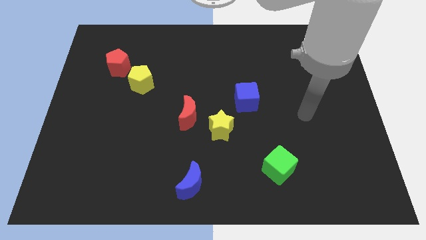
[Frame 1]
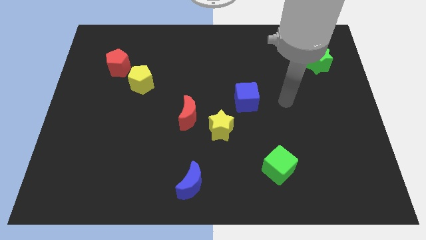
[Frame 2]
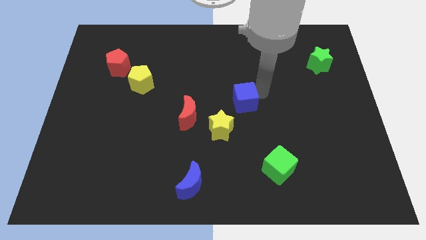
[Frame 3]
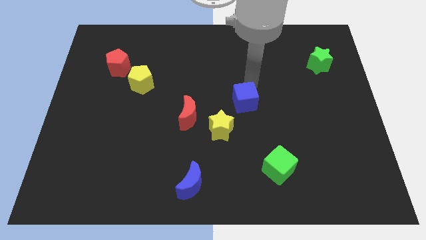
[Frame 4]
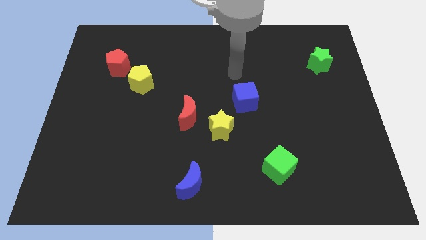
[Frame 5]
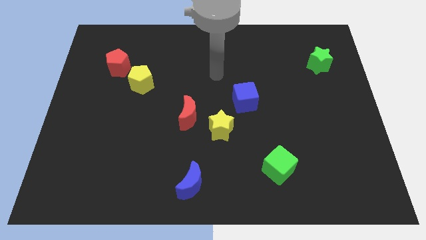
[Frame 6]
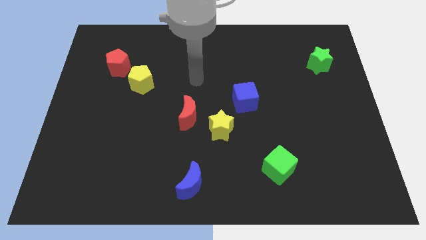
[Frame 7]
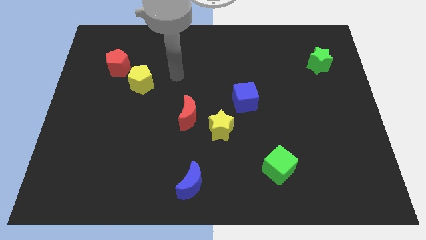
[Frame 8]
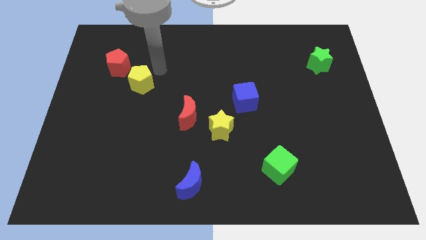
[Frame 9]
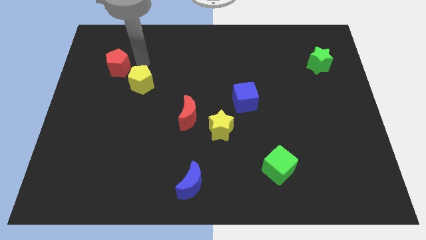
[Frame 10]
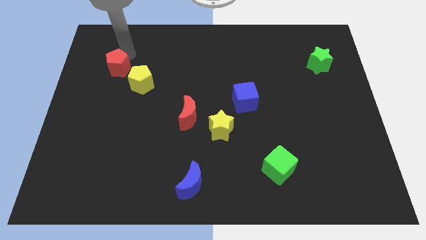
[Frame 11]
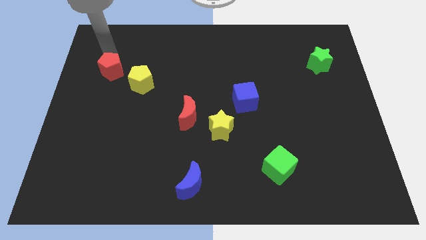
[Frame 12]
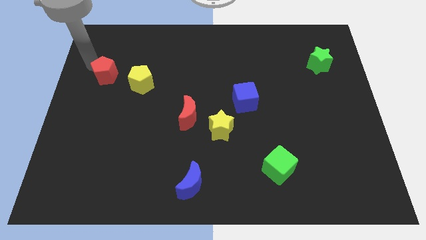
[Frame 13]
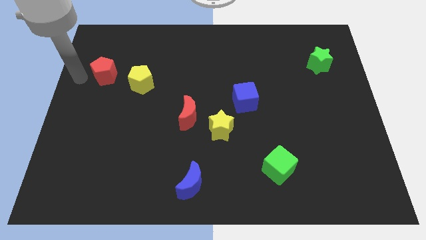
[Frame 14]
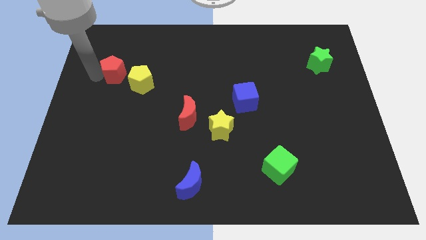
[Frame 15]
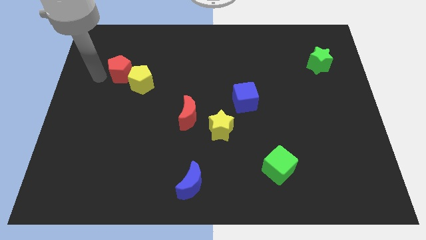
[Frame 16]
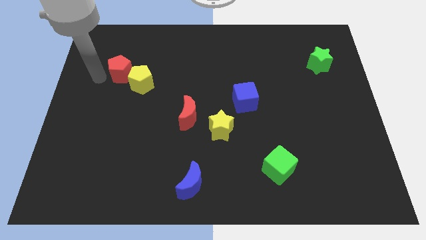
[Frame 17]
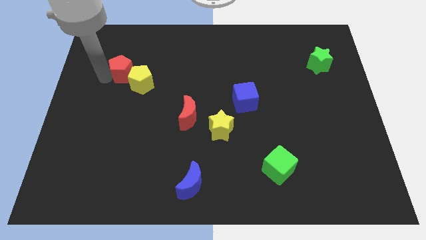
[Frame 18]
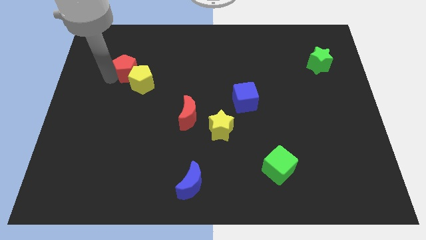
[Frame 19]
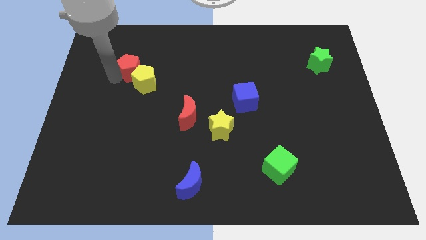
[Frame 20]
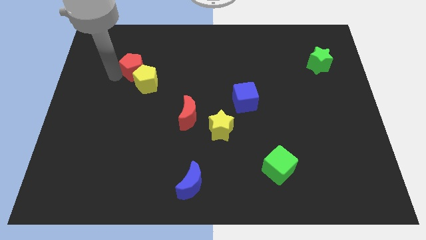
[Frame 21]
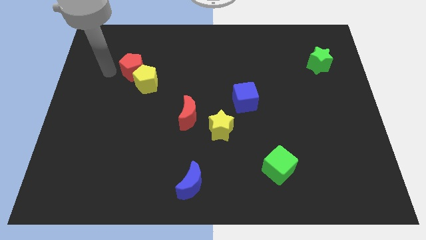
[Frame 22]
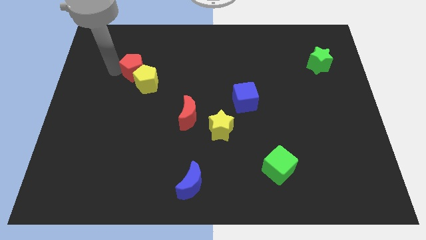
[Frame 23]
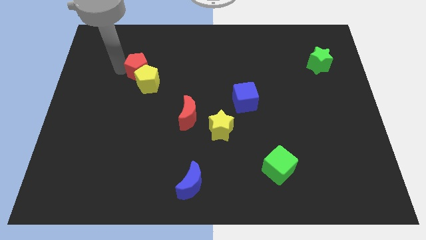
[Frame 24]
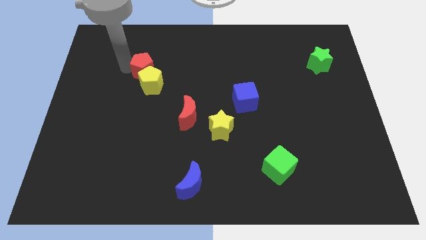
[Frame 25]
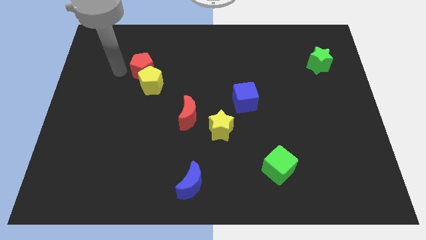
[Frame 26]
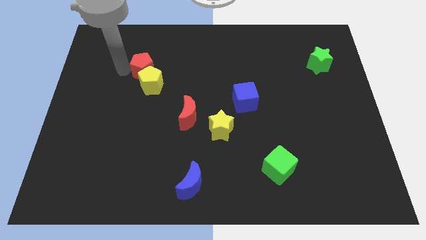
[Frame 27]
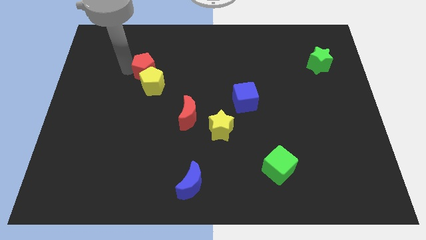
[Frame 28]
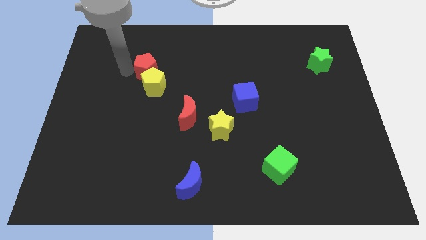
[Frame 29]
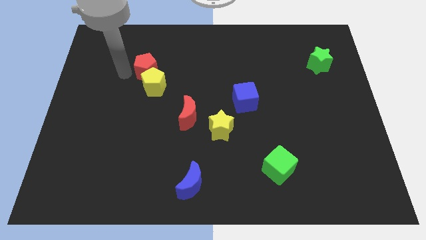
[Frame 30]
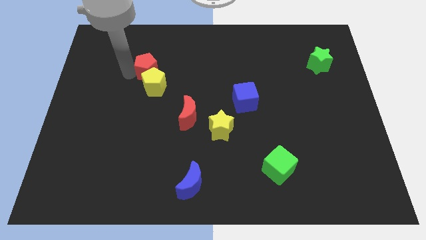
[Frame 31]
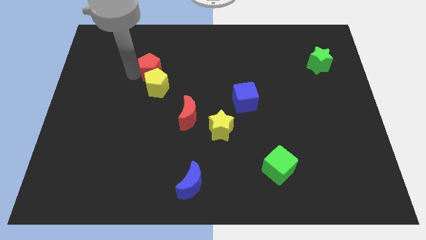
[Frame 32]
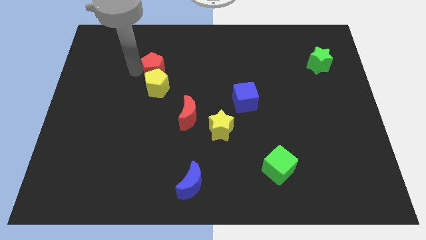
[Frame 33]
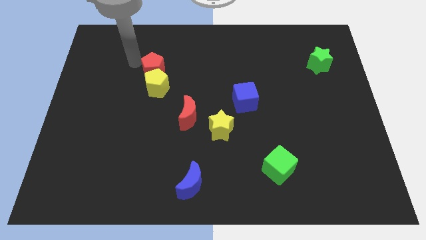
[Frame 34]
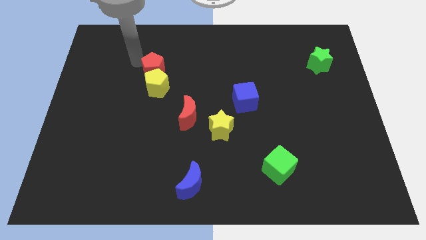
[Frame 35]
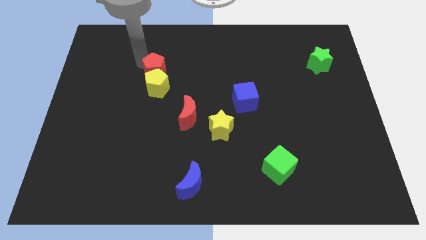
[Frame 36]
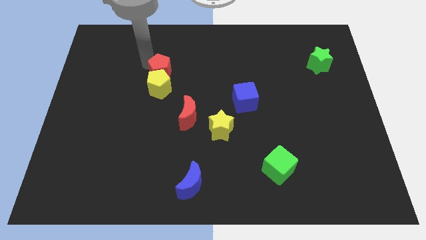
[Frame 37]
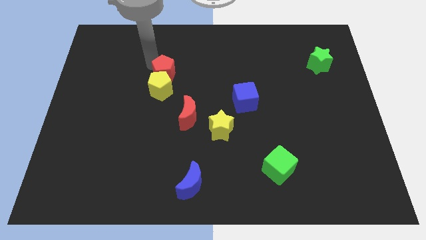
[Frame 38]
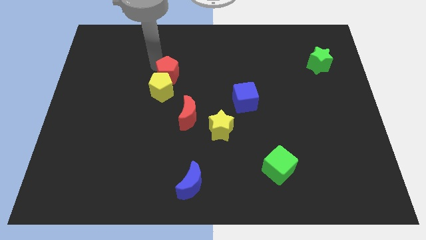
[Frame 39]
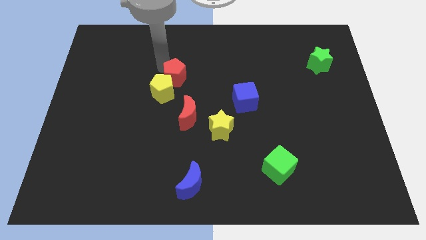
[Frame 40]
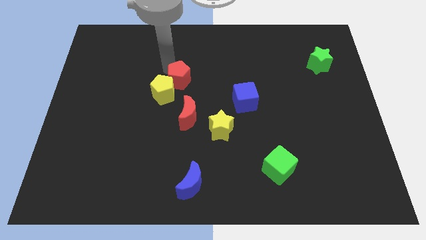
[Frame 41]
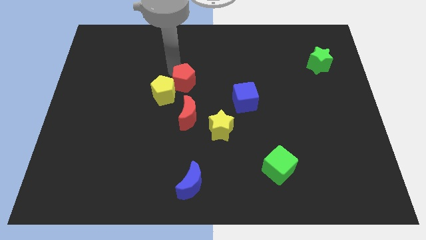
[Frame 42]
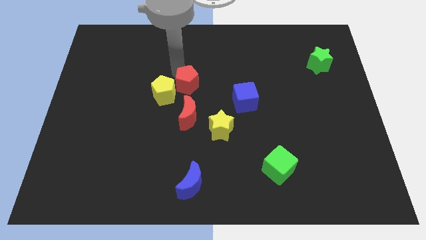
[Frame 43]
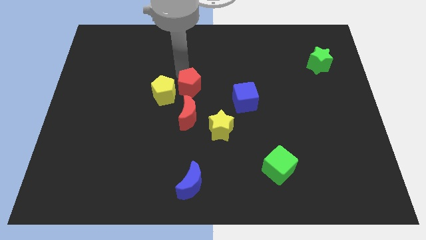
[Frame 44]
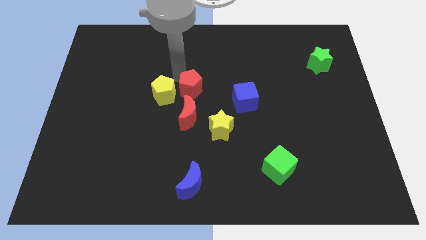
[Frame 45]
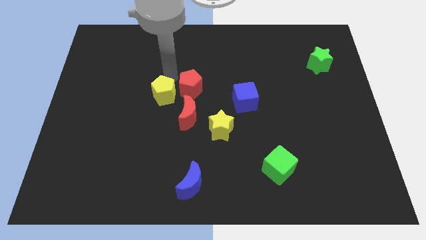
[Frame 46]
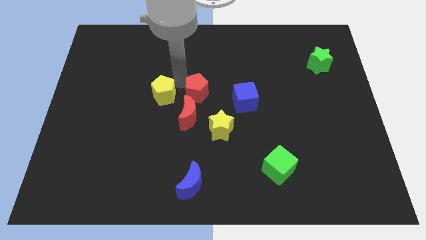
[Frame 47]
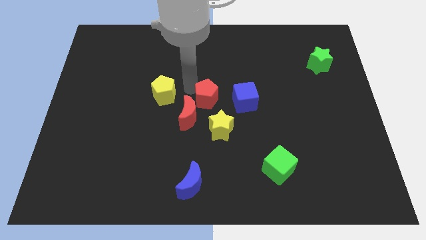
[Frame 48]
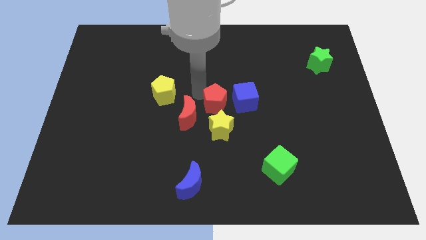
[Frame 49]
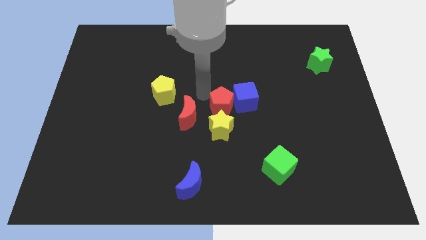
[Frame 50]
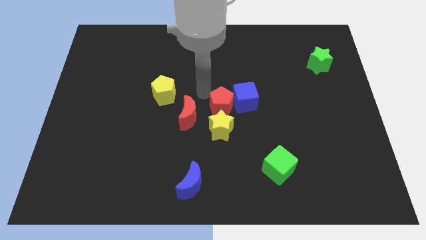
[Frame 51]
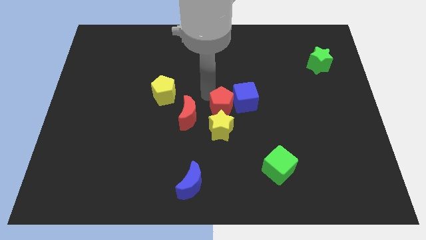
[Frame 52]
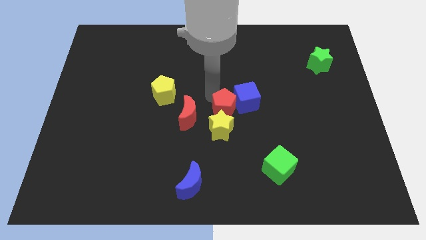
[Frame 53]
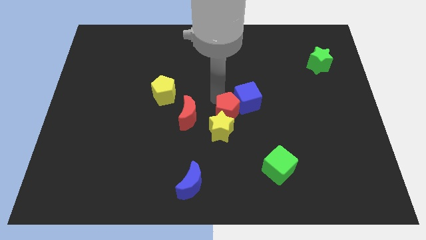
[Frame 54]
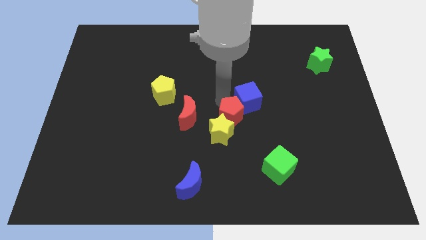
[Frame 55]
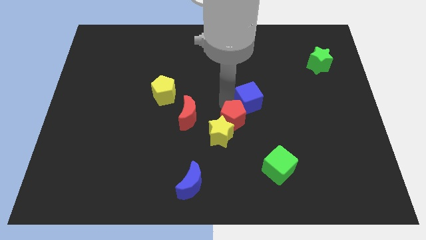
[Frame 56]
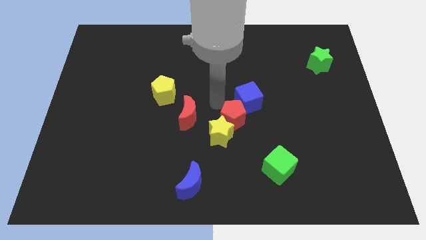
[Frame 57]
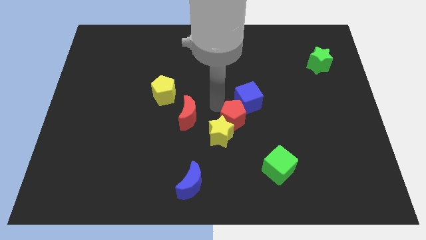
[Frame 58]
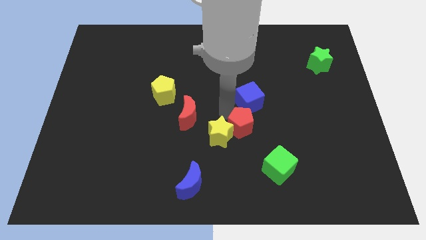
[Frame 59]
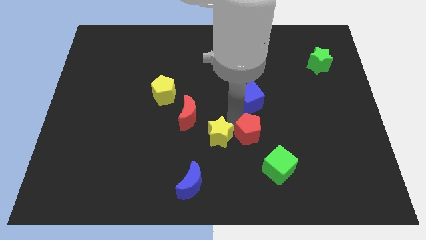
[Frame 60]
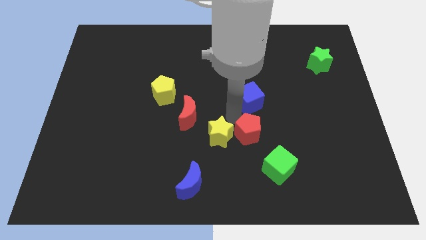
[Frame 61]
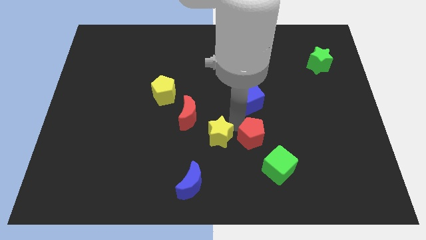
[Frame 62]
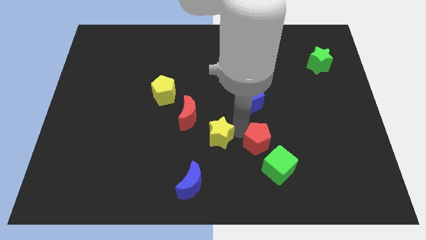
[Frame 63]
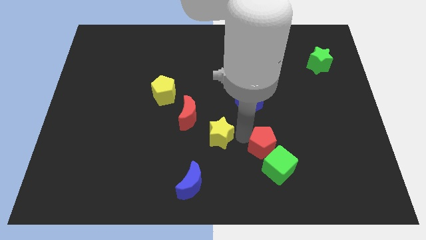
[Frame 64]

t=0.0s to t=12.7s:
slide the red pentagon to the green cube
